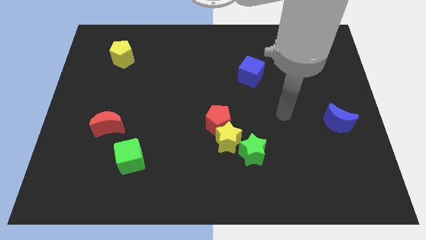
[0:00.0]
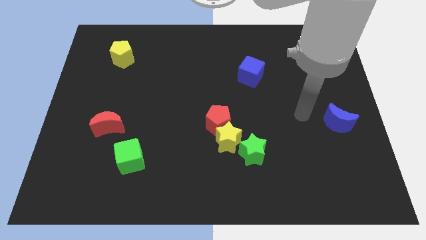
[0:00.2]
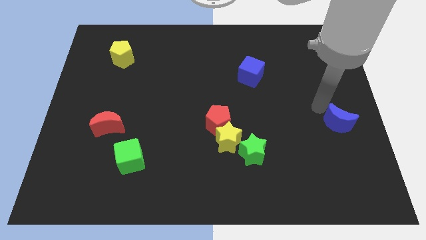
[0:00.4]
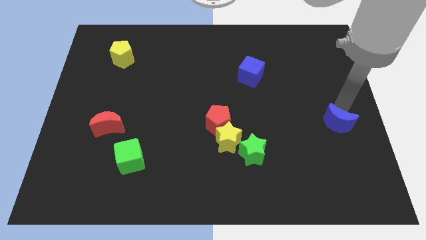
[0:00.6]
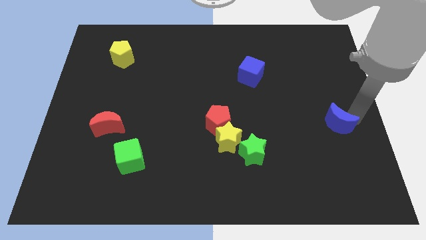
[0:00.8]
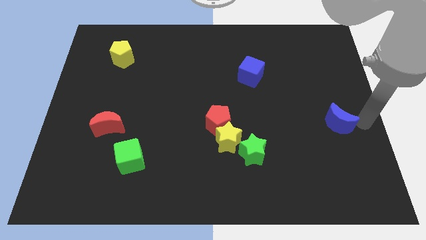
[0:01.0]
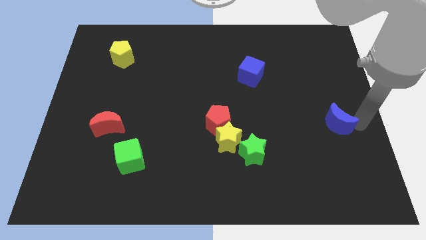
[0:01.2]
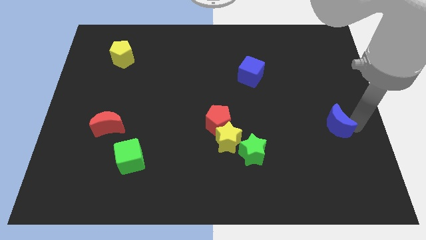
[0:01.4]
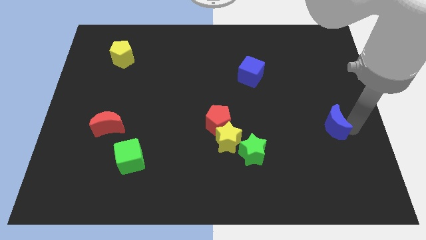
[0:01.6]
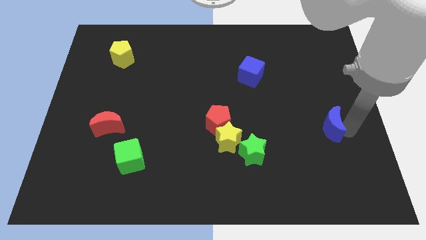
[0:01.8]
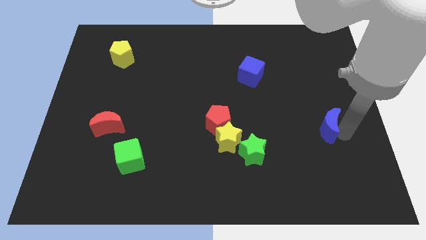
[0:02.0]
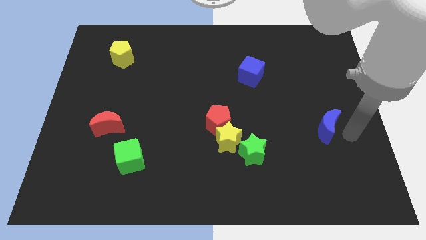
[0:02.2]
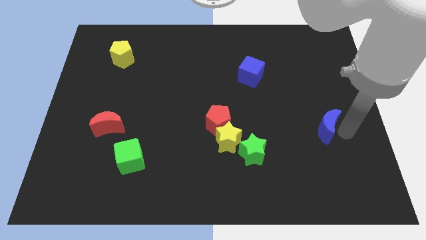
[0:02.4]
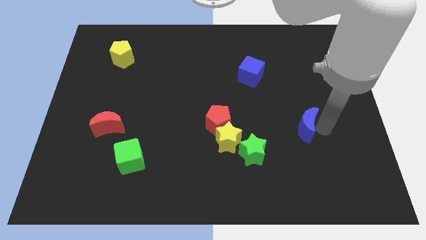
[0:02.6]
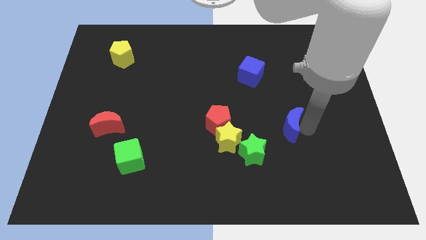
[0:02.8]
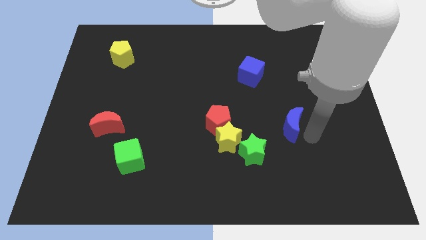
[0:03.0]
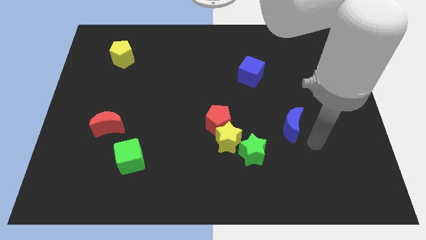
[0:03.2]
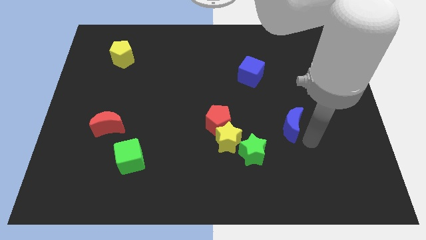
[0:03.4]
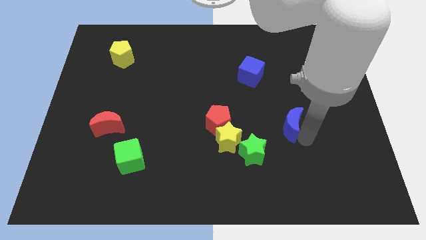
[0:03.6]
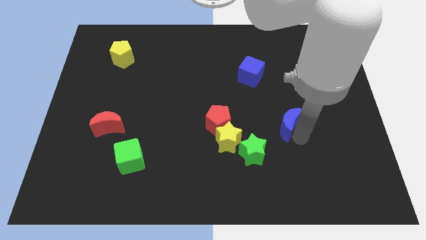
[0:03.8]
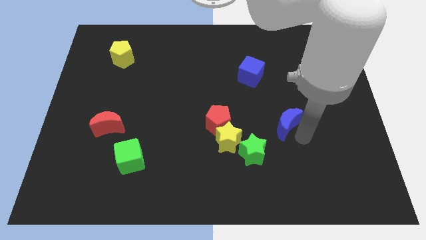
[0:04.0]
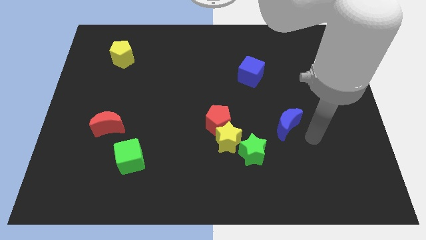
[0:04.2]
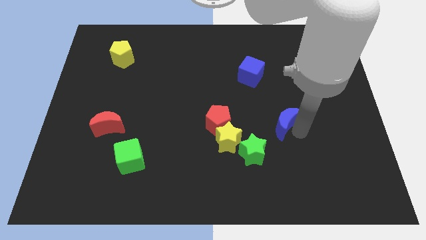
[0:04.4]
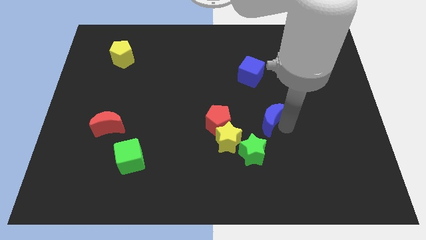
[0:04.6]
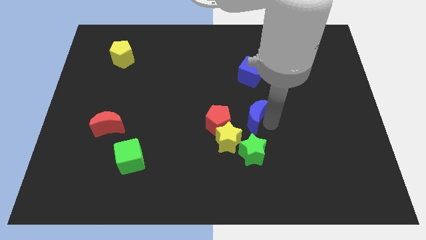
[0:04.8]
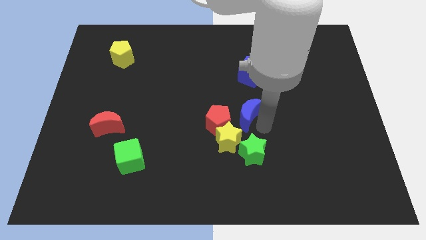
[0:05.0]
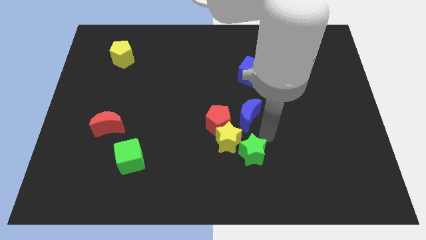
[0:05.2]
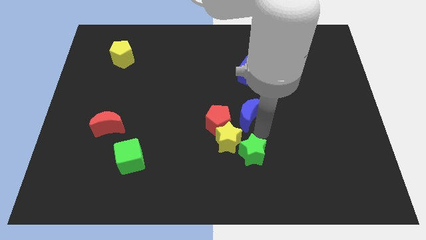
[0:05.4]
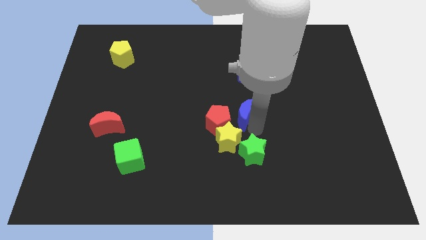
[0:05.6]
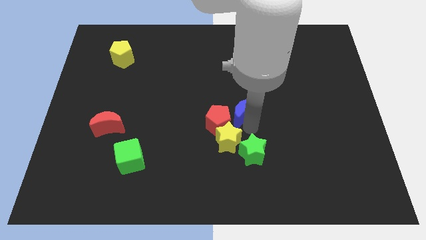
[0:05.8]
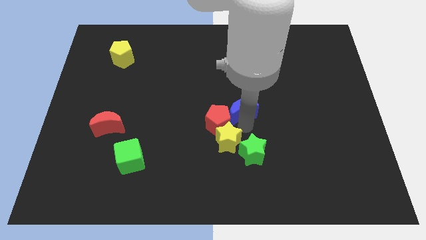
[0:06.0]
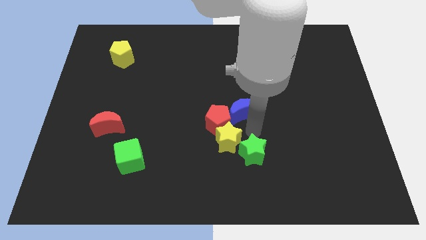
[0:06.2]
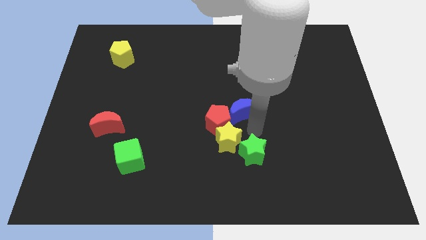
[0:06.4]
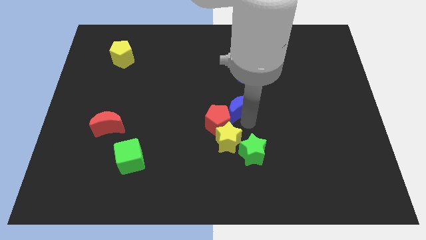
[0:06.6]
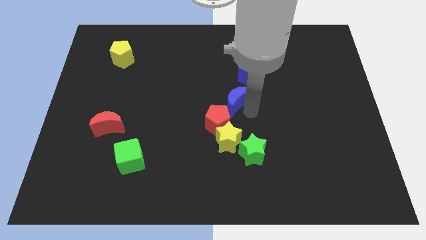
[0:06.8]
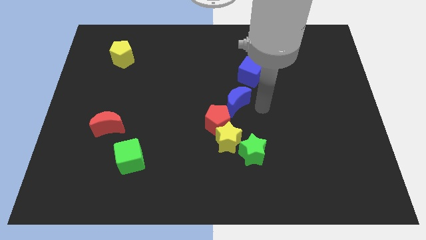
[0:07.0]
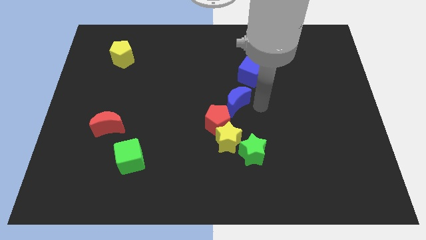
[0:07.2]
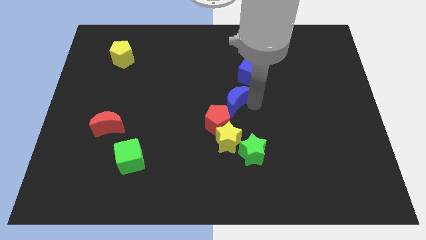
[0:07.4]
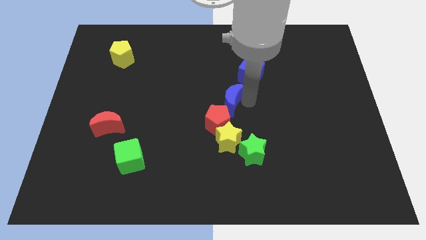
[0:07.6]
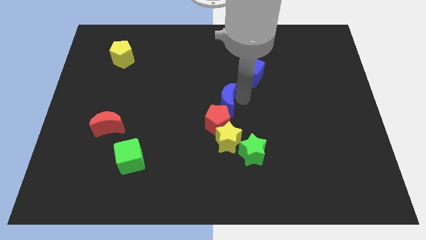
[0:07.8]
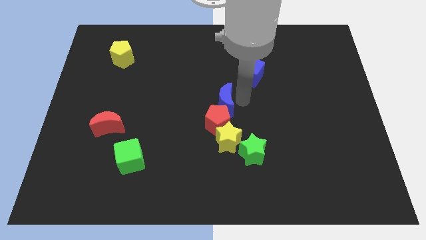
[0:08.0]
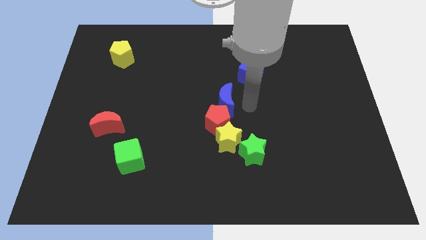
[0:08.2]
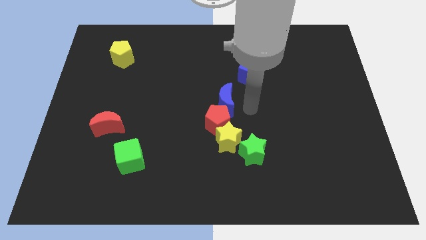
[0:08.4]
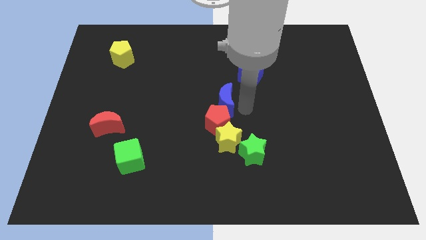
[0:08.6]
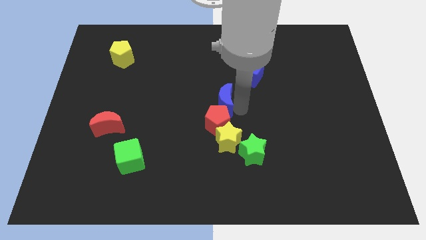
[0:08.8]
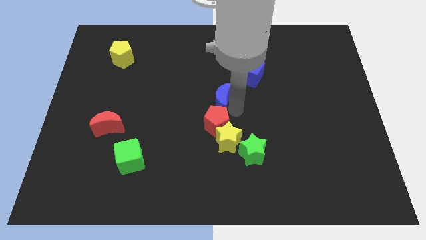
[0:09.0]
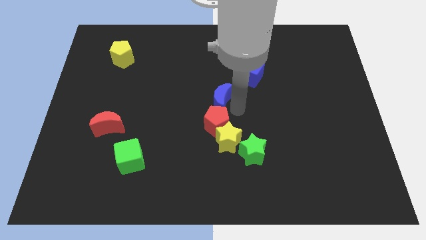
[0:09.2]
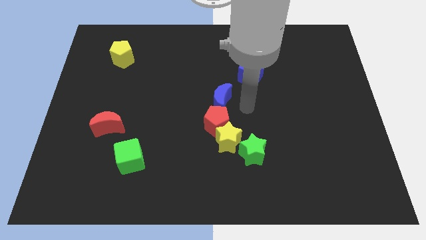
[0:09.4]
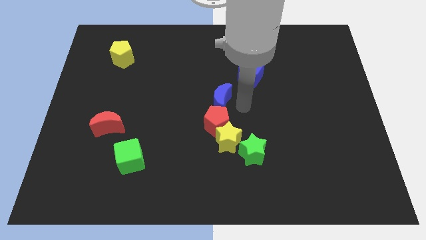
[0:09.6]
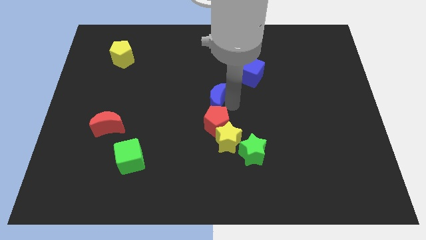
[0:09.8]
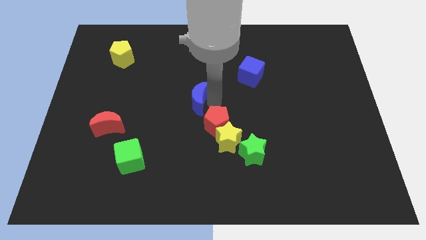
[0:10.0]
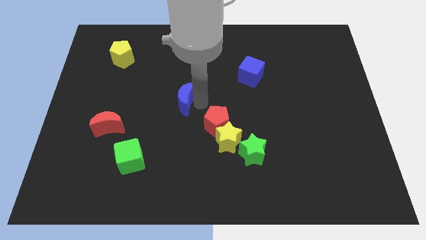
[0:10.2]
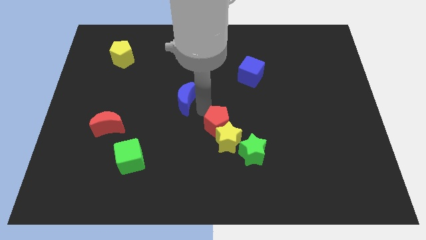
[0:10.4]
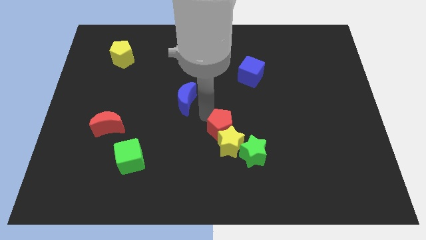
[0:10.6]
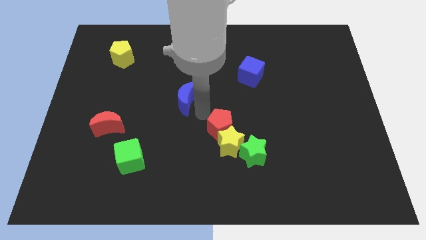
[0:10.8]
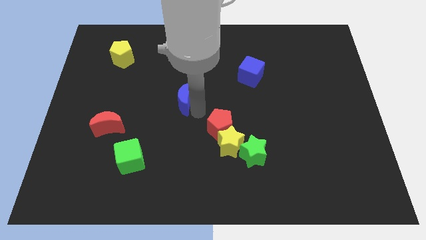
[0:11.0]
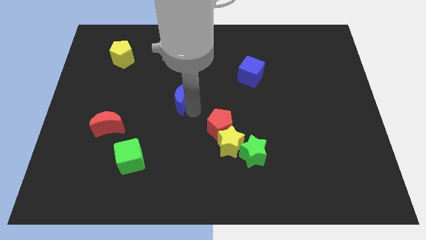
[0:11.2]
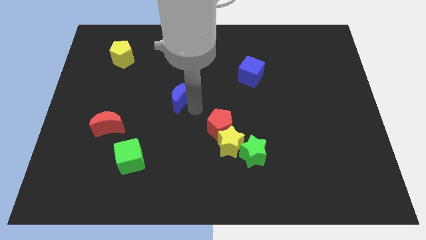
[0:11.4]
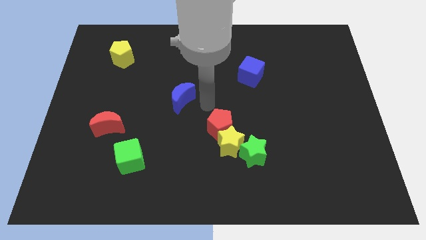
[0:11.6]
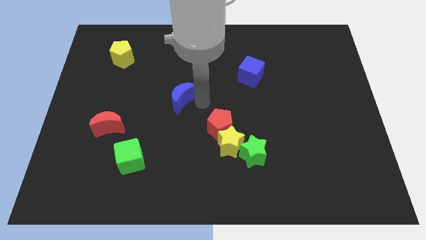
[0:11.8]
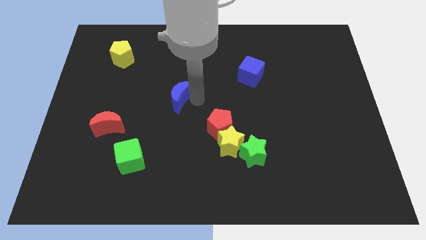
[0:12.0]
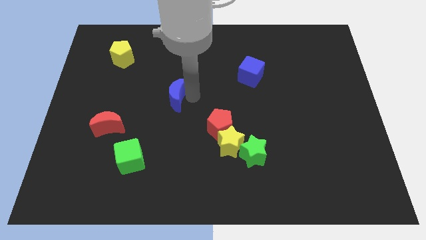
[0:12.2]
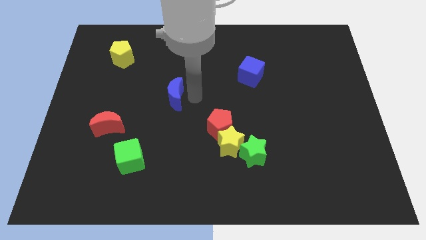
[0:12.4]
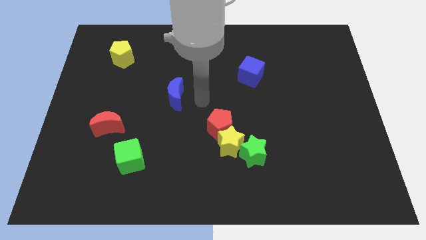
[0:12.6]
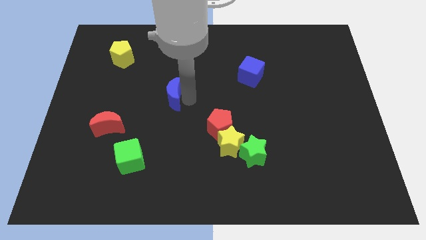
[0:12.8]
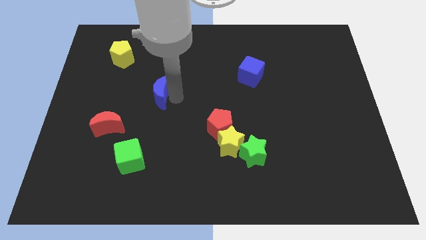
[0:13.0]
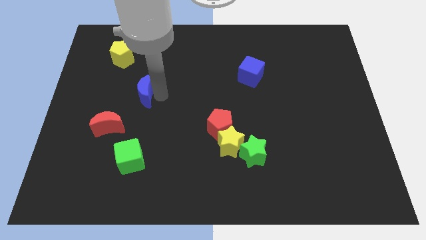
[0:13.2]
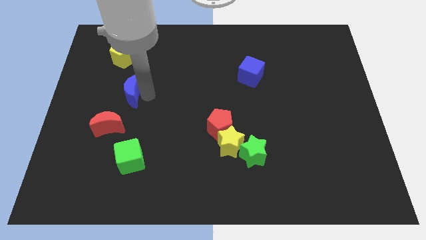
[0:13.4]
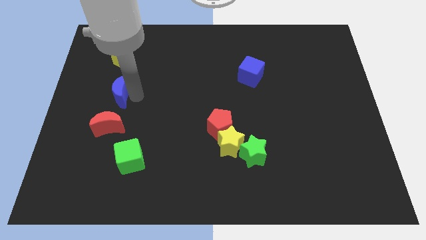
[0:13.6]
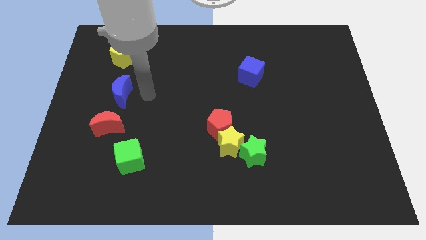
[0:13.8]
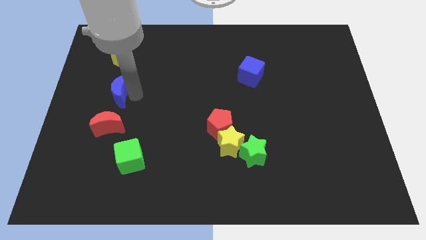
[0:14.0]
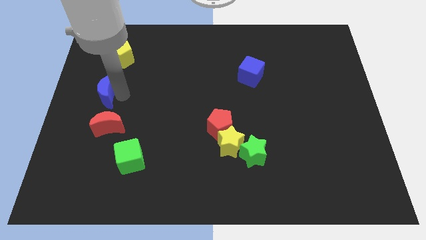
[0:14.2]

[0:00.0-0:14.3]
move the blue moon to the center left

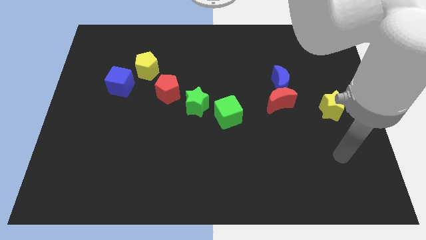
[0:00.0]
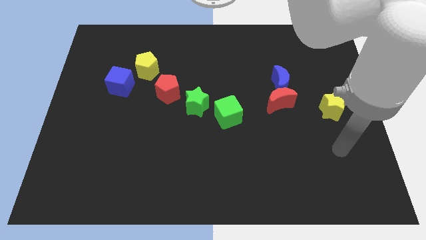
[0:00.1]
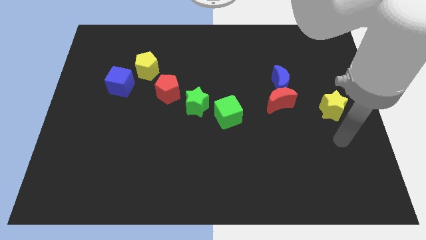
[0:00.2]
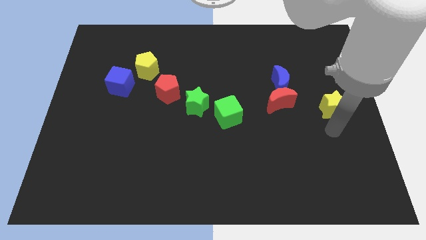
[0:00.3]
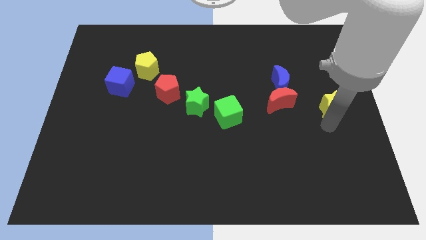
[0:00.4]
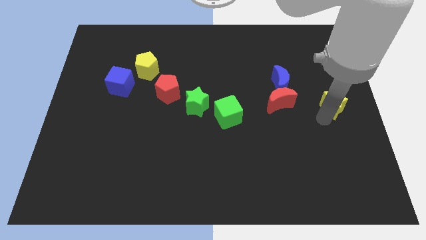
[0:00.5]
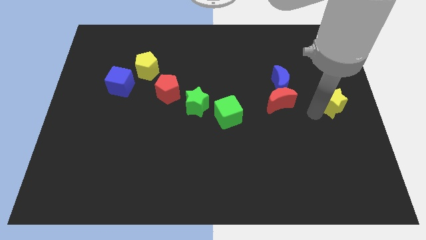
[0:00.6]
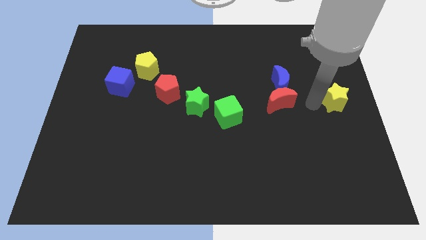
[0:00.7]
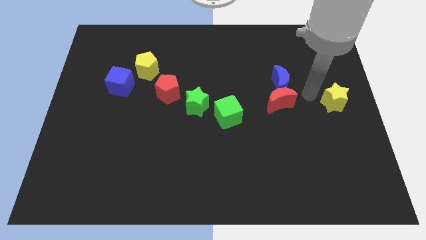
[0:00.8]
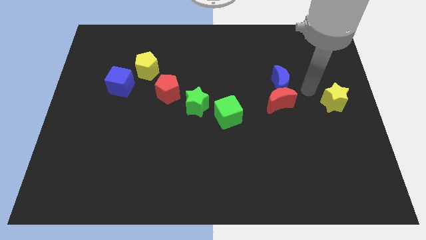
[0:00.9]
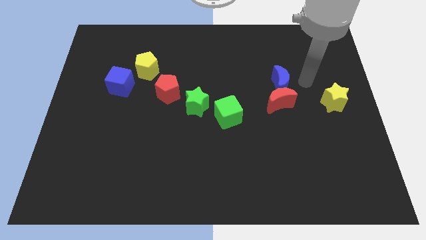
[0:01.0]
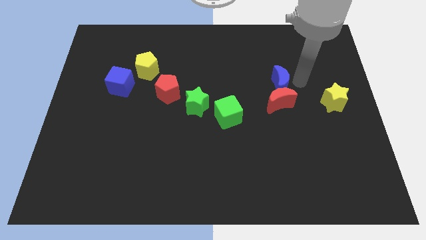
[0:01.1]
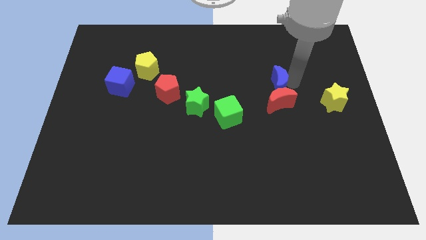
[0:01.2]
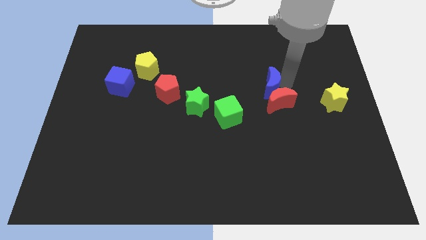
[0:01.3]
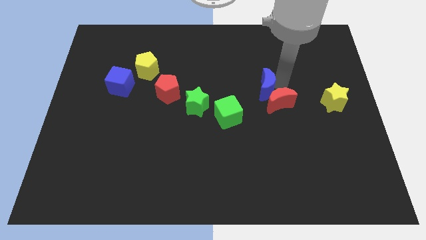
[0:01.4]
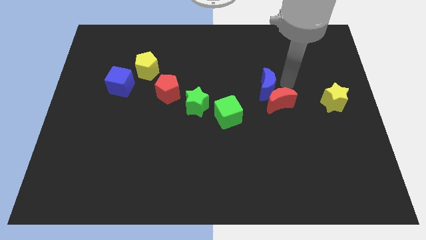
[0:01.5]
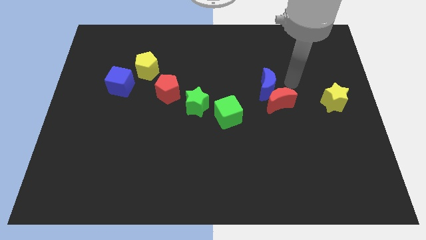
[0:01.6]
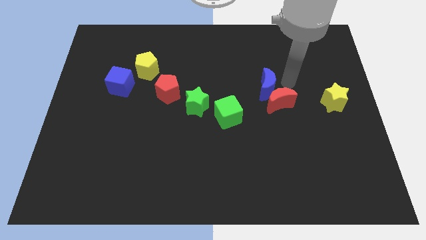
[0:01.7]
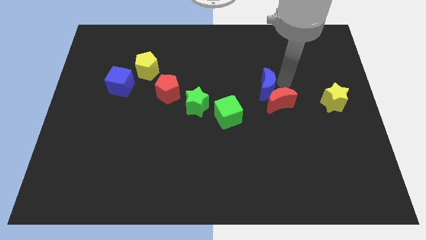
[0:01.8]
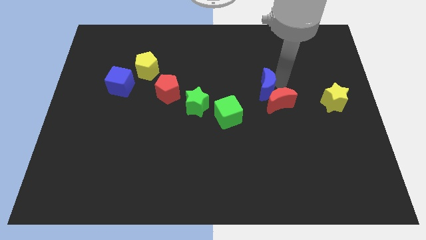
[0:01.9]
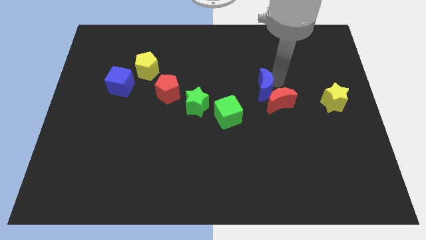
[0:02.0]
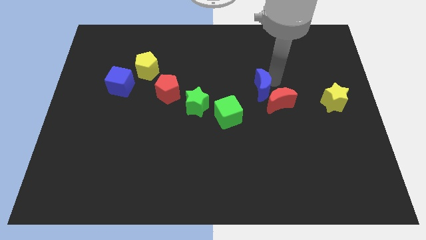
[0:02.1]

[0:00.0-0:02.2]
move the blue moon to the middle
